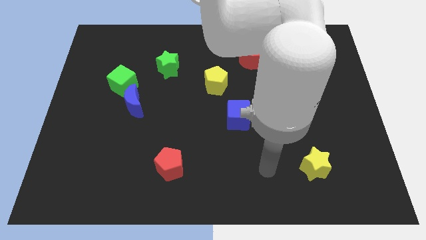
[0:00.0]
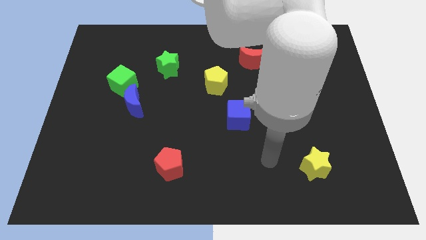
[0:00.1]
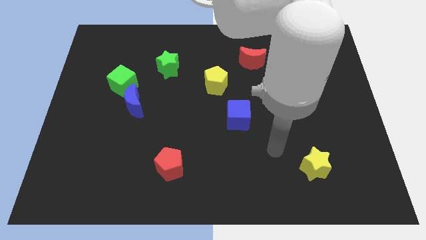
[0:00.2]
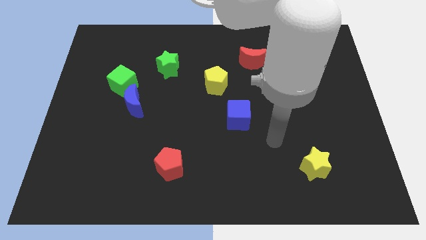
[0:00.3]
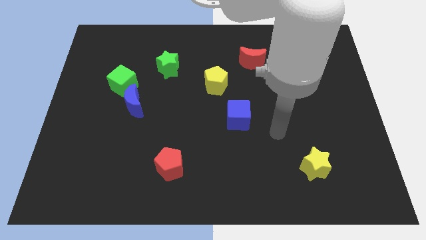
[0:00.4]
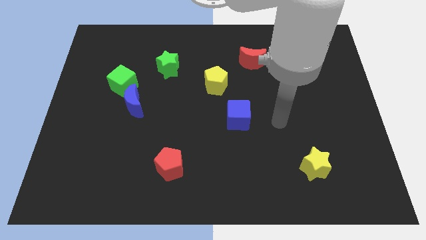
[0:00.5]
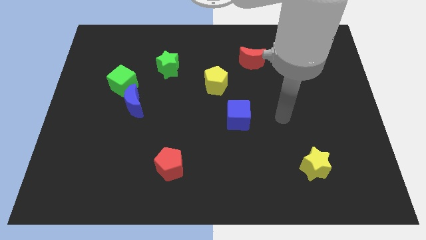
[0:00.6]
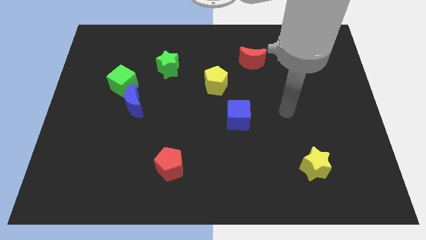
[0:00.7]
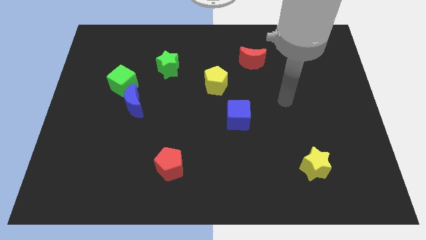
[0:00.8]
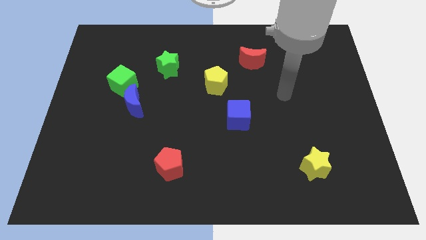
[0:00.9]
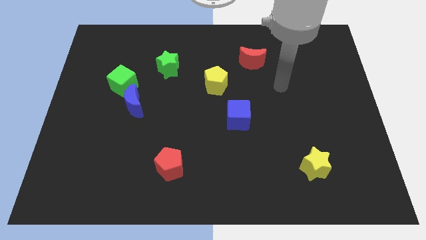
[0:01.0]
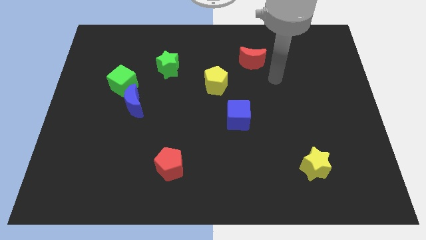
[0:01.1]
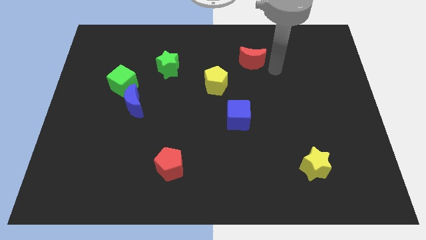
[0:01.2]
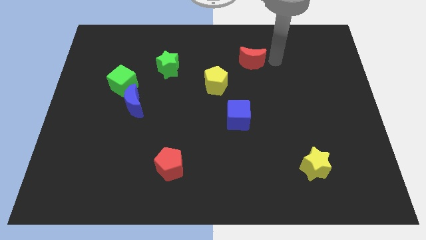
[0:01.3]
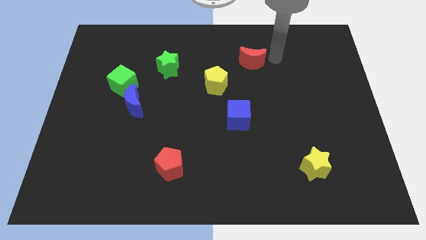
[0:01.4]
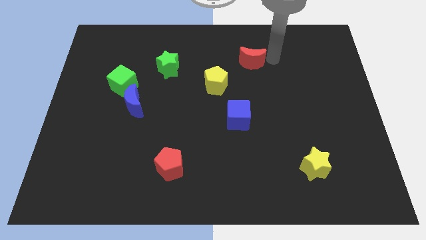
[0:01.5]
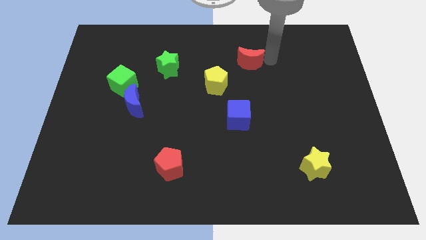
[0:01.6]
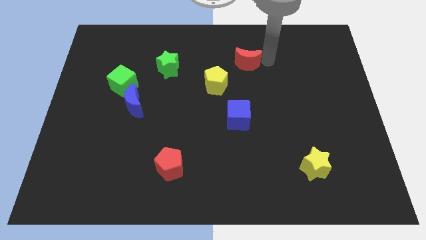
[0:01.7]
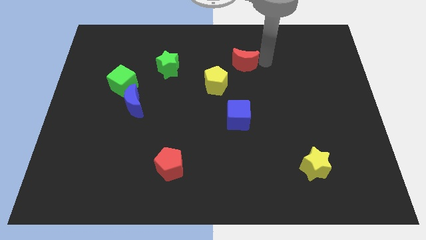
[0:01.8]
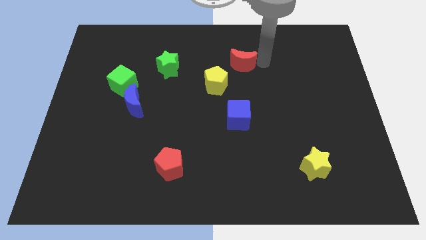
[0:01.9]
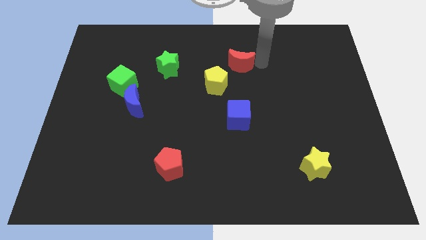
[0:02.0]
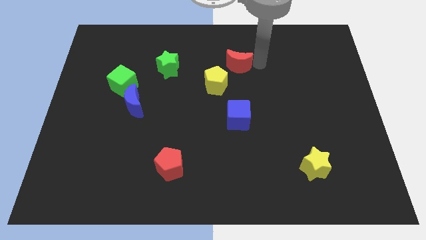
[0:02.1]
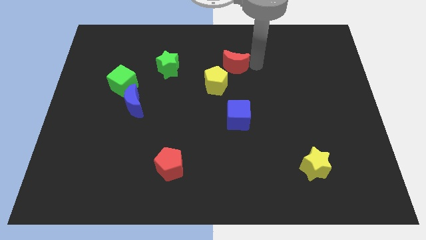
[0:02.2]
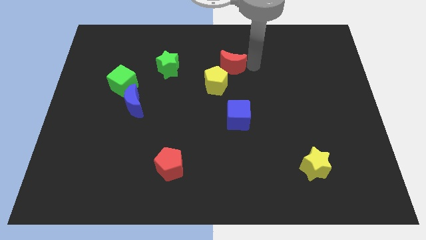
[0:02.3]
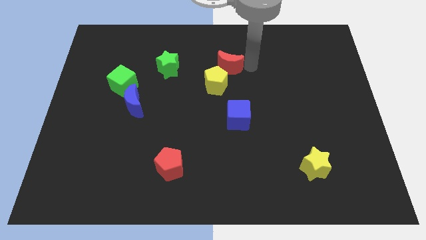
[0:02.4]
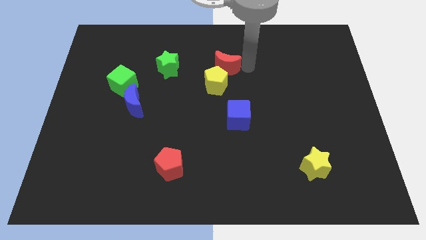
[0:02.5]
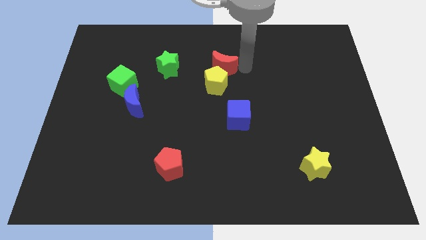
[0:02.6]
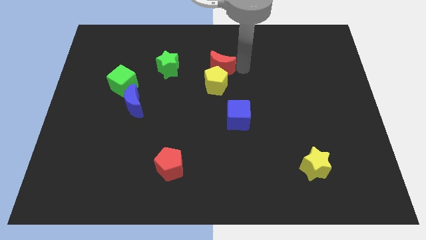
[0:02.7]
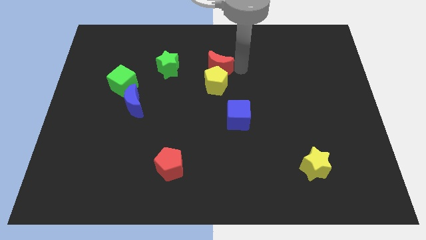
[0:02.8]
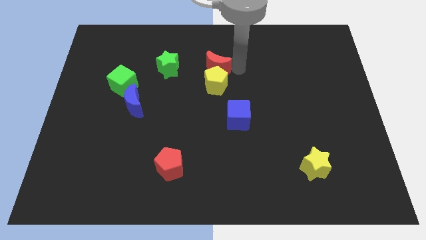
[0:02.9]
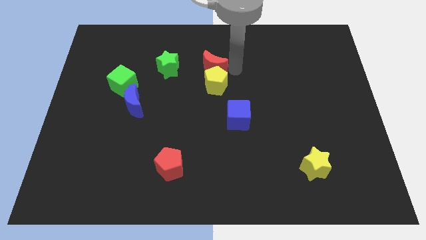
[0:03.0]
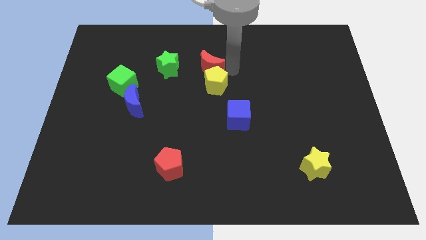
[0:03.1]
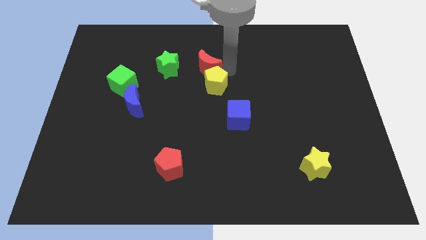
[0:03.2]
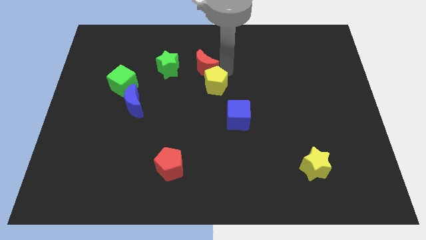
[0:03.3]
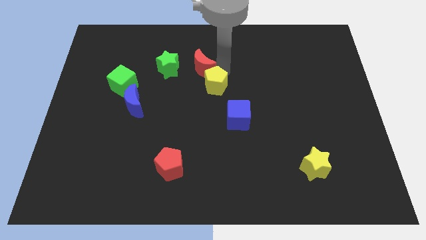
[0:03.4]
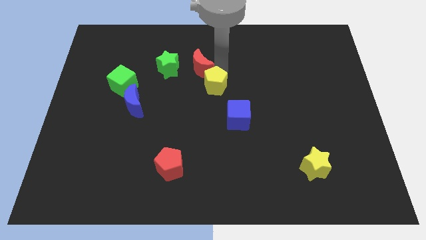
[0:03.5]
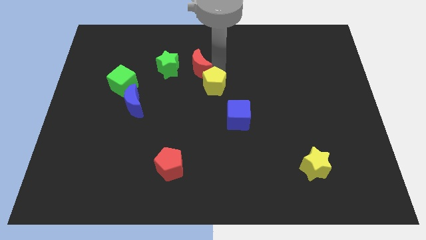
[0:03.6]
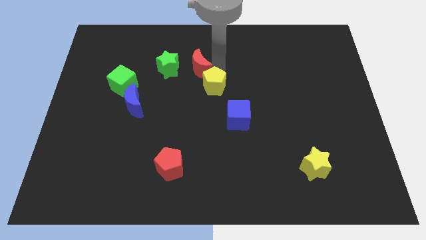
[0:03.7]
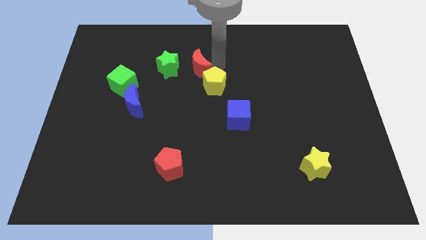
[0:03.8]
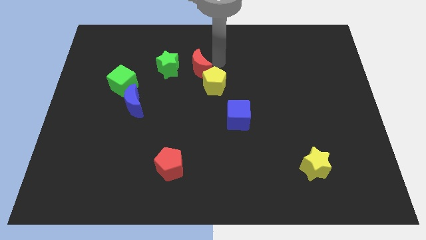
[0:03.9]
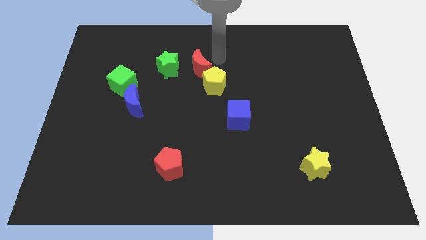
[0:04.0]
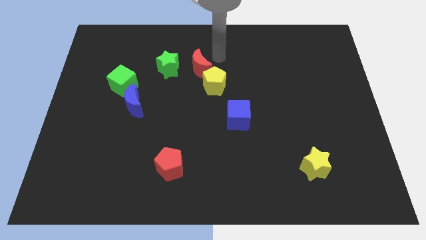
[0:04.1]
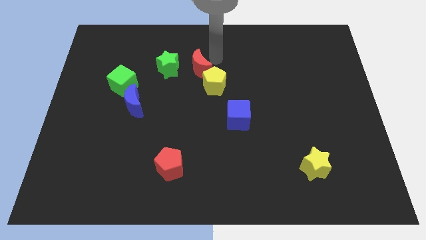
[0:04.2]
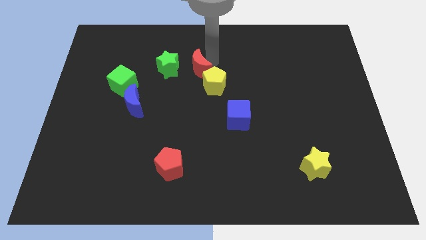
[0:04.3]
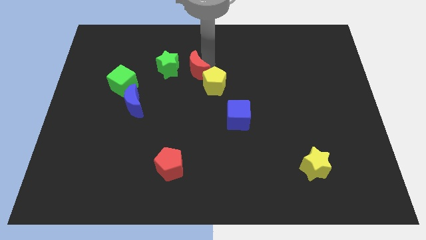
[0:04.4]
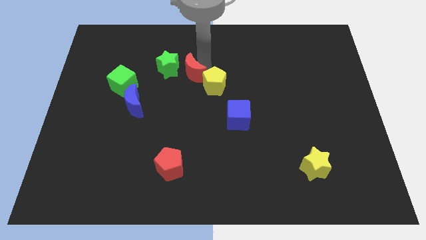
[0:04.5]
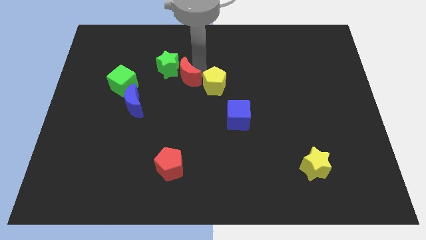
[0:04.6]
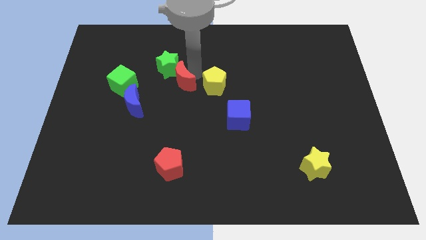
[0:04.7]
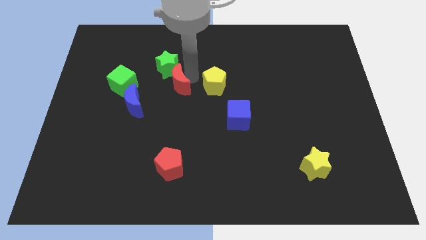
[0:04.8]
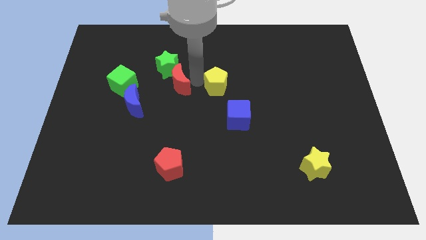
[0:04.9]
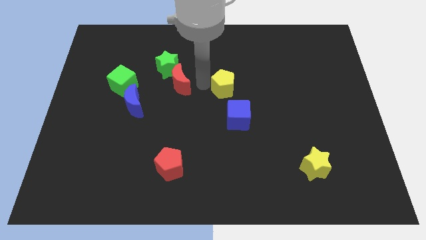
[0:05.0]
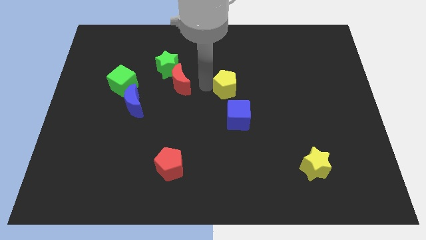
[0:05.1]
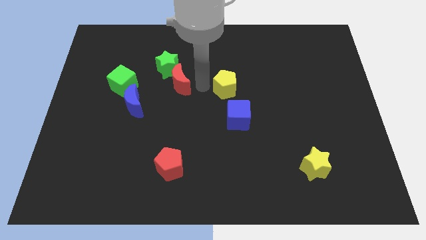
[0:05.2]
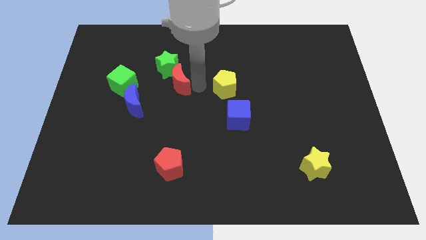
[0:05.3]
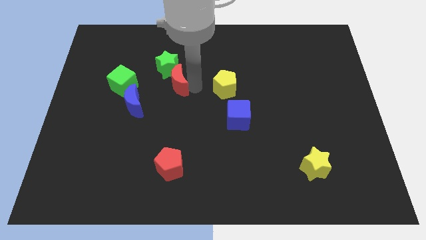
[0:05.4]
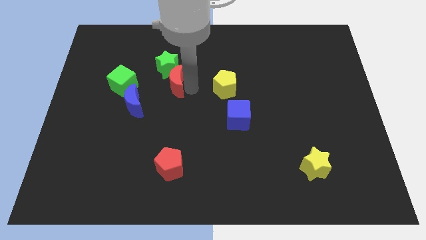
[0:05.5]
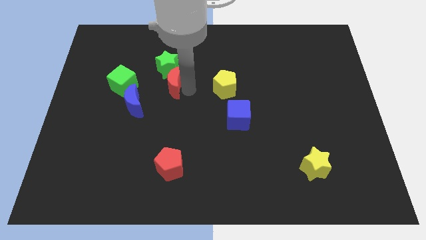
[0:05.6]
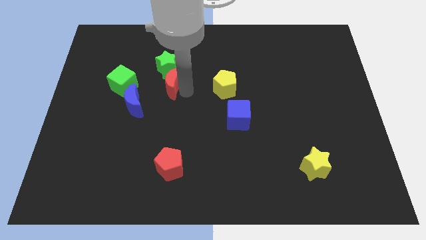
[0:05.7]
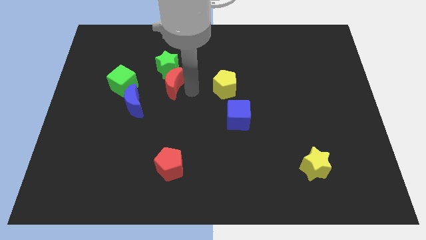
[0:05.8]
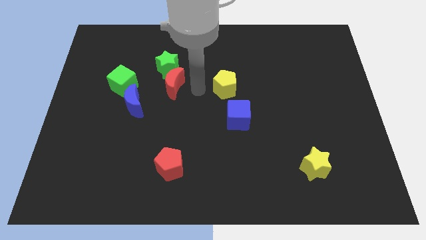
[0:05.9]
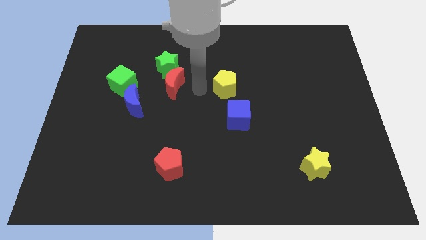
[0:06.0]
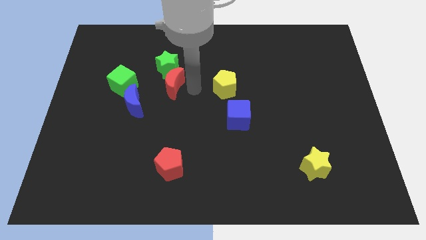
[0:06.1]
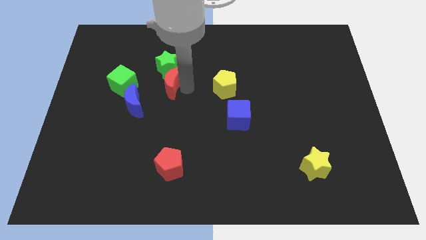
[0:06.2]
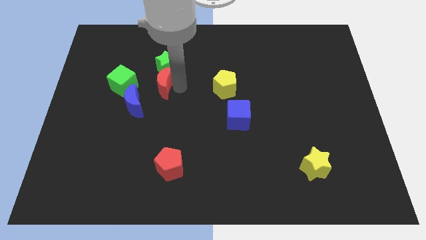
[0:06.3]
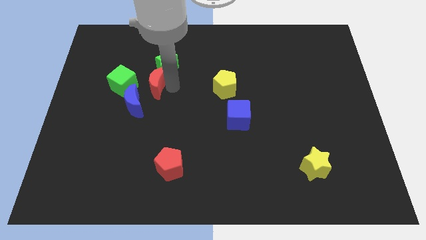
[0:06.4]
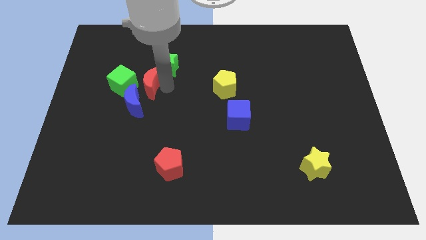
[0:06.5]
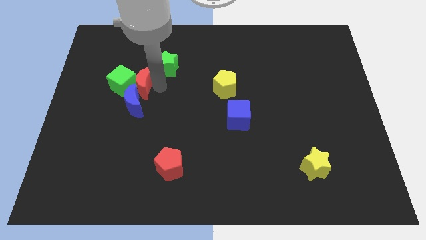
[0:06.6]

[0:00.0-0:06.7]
push the red moon towards the green cube

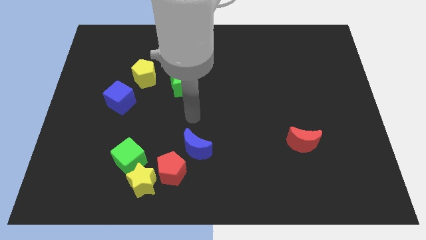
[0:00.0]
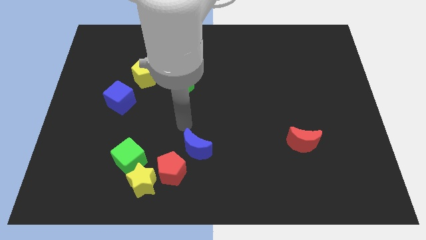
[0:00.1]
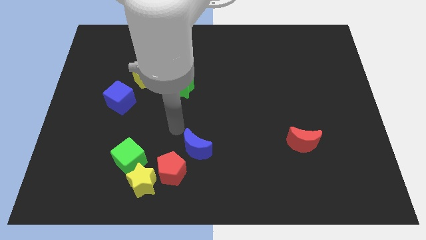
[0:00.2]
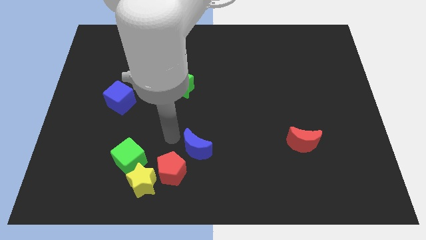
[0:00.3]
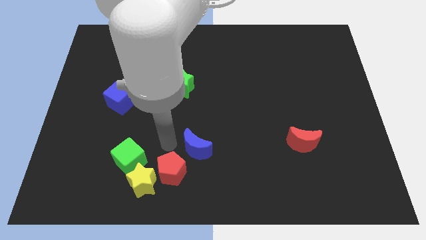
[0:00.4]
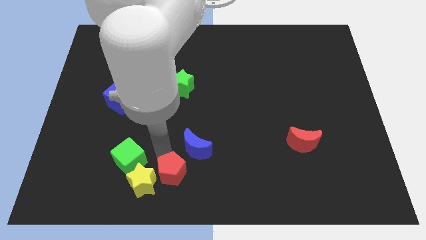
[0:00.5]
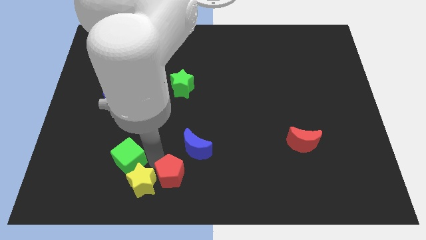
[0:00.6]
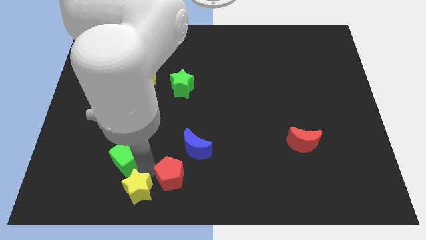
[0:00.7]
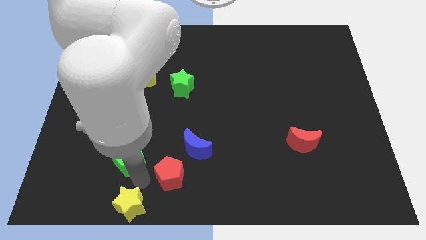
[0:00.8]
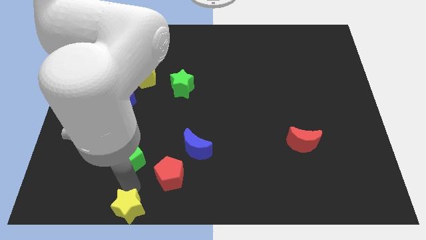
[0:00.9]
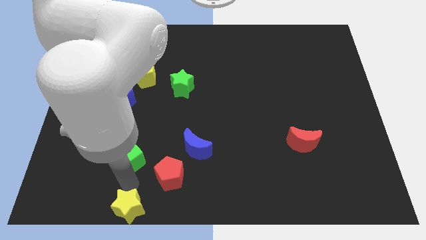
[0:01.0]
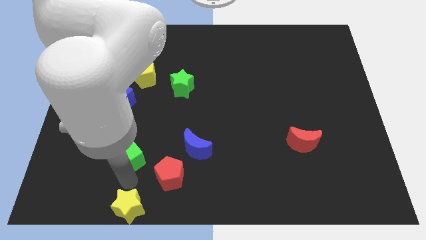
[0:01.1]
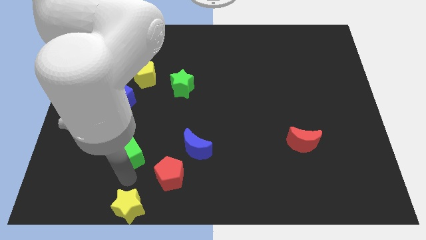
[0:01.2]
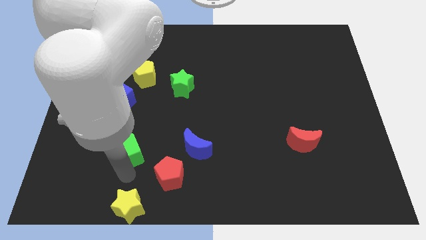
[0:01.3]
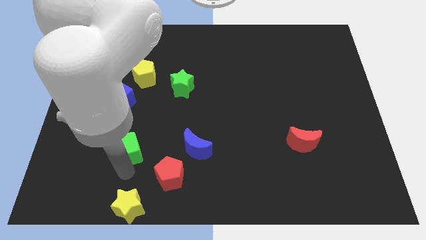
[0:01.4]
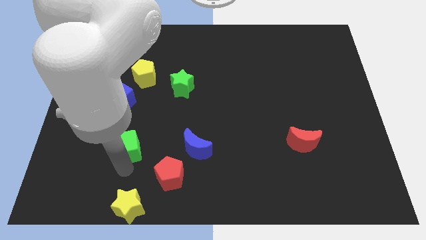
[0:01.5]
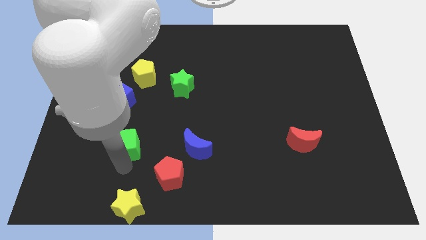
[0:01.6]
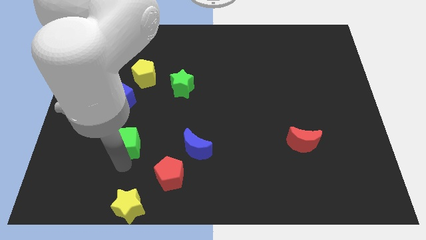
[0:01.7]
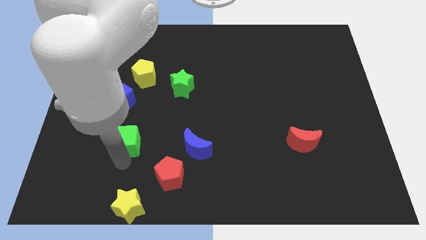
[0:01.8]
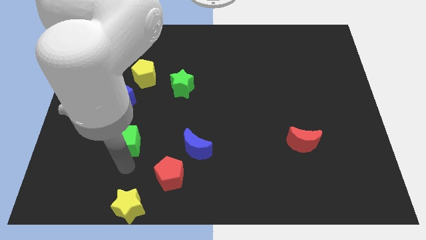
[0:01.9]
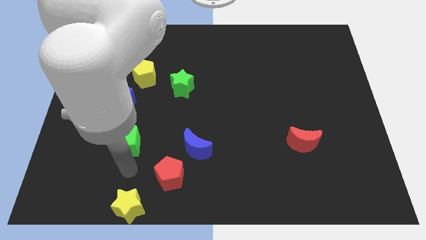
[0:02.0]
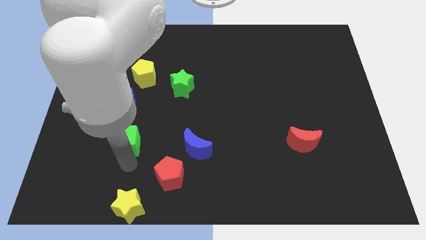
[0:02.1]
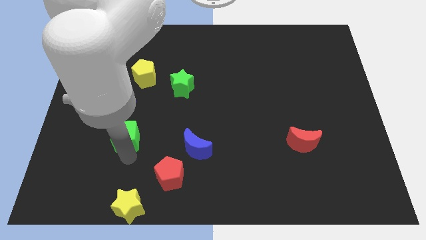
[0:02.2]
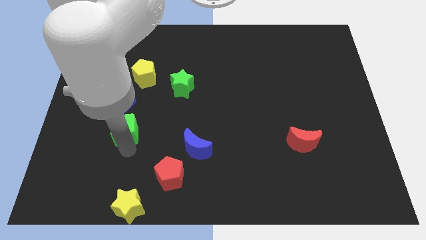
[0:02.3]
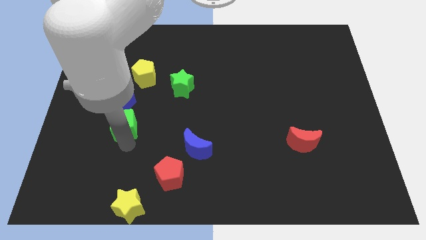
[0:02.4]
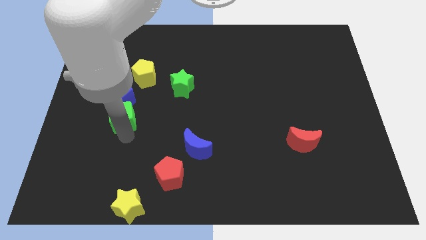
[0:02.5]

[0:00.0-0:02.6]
slide the green cube next to the blue cube
